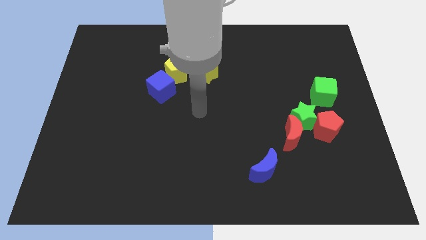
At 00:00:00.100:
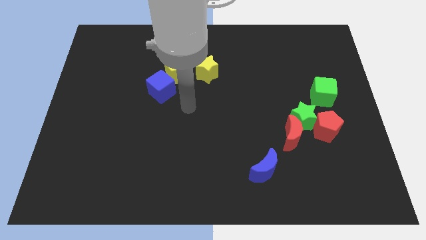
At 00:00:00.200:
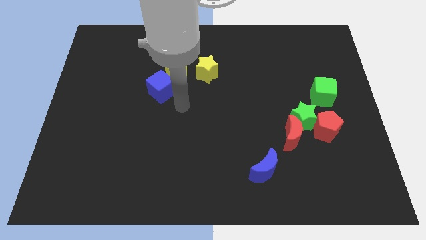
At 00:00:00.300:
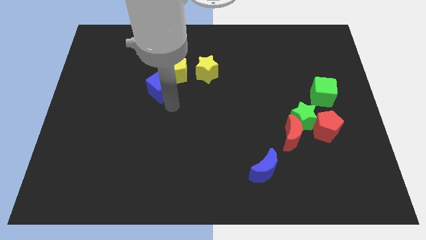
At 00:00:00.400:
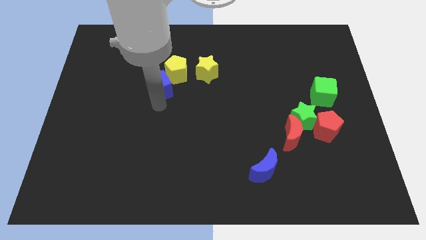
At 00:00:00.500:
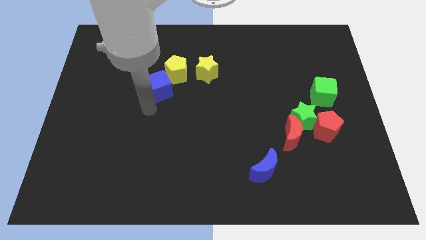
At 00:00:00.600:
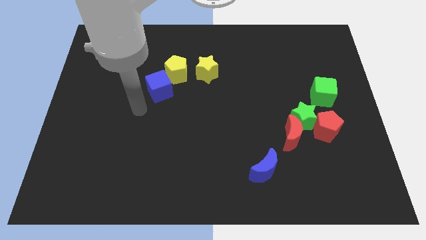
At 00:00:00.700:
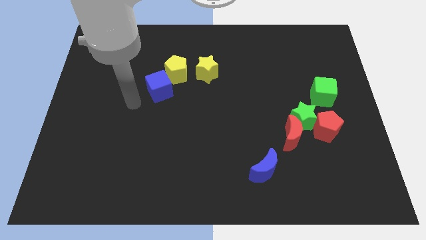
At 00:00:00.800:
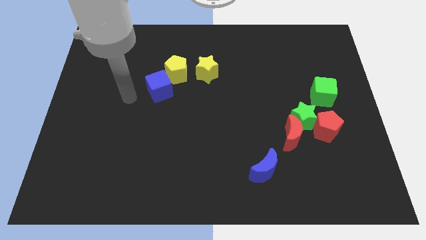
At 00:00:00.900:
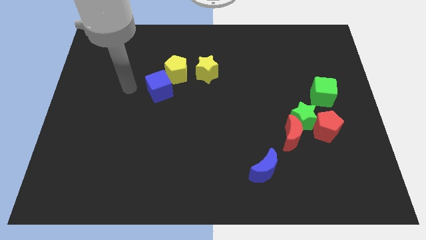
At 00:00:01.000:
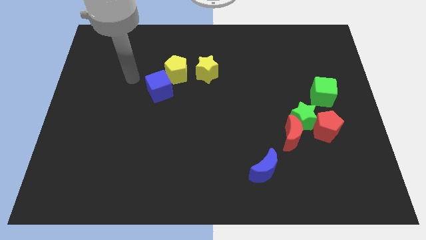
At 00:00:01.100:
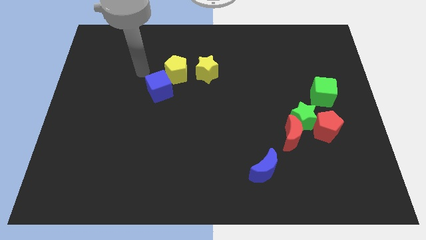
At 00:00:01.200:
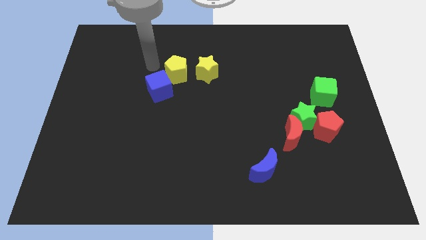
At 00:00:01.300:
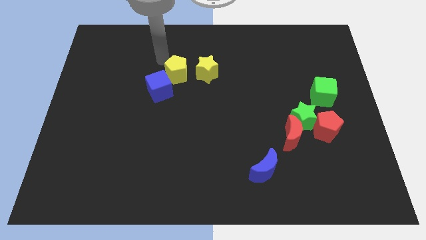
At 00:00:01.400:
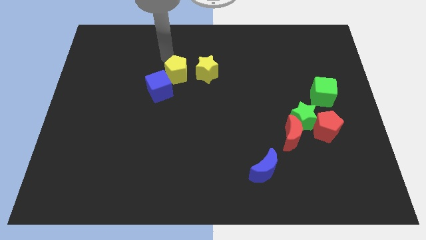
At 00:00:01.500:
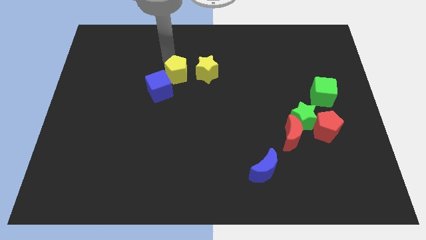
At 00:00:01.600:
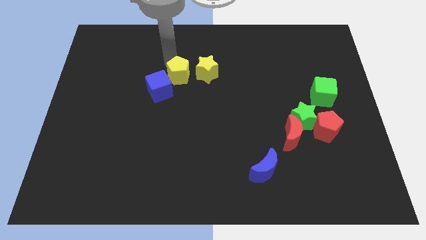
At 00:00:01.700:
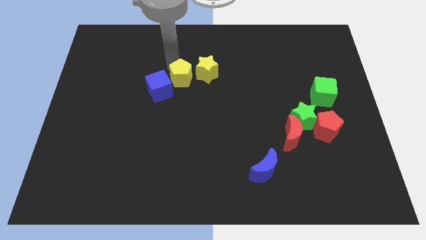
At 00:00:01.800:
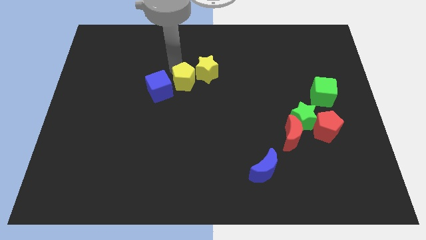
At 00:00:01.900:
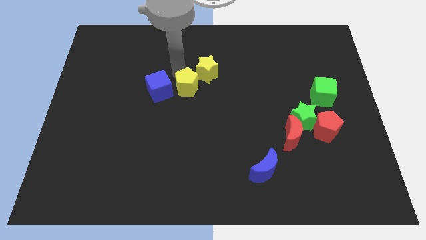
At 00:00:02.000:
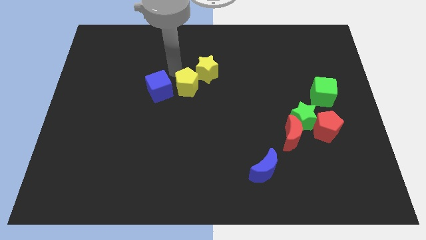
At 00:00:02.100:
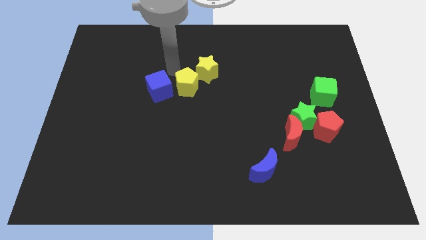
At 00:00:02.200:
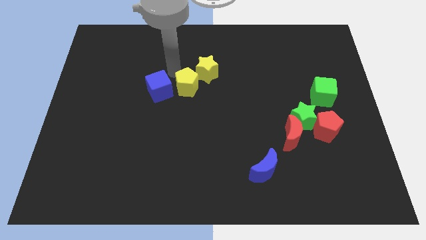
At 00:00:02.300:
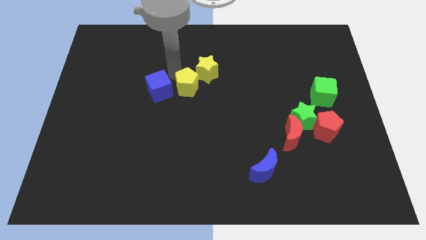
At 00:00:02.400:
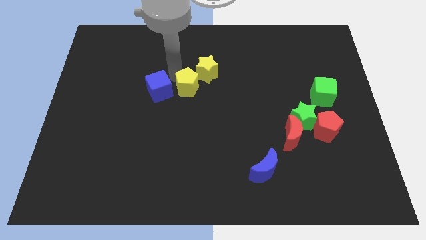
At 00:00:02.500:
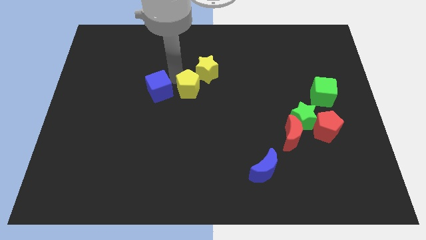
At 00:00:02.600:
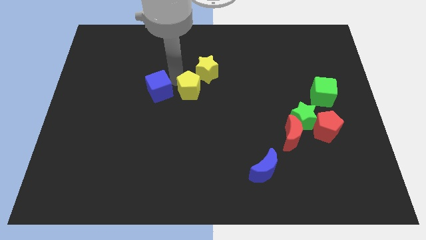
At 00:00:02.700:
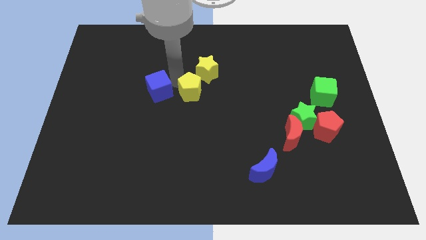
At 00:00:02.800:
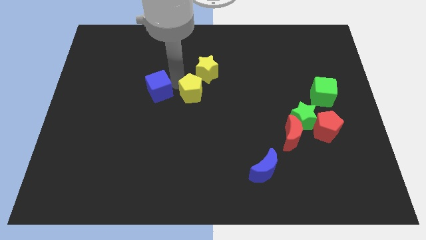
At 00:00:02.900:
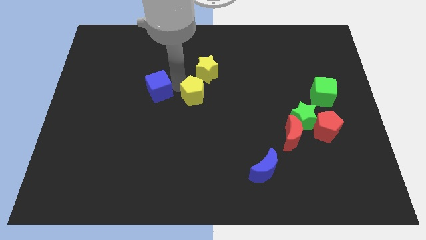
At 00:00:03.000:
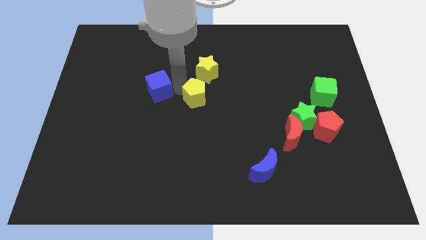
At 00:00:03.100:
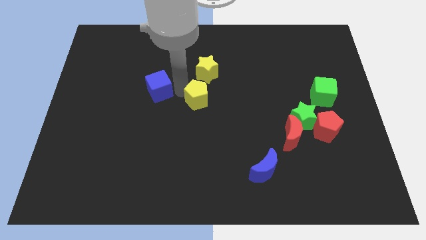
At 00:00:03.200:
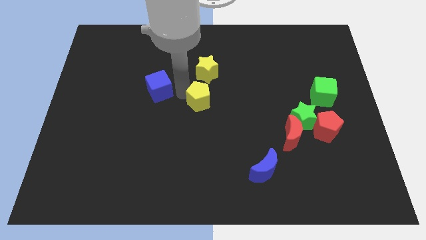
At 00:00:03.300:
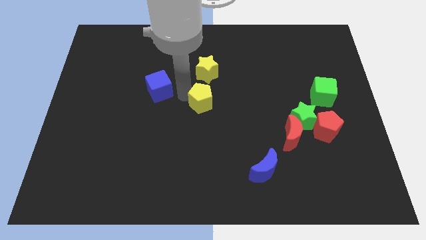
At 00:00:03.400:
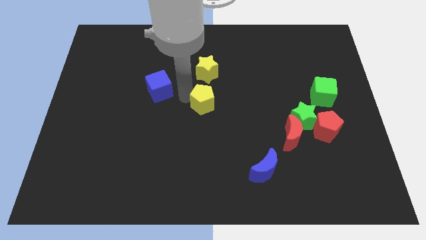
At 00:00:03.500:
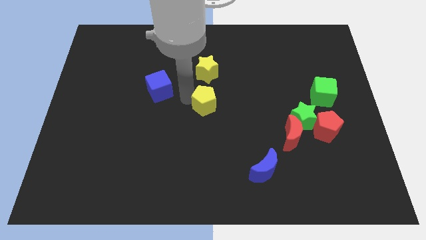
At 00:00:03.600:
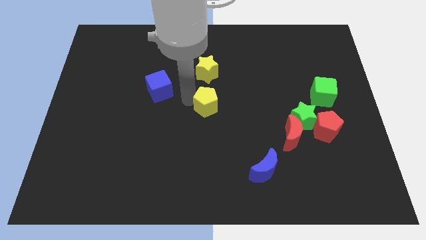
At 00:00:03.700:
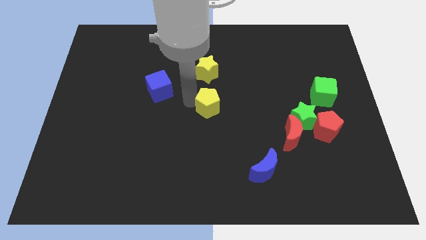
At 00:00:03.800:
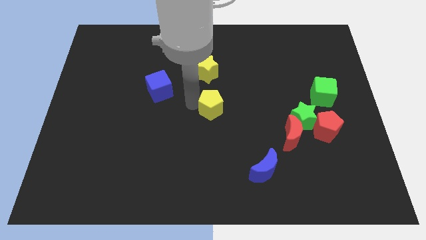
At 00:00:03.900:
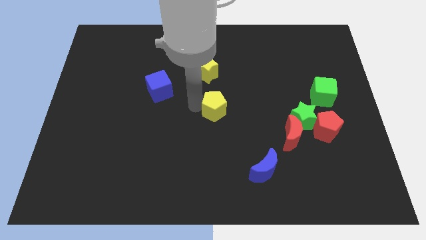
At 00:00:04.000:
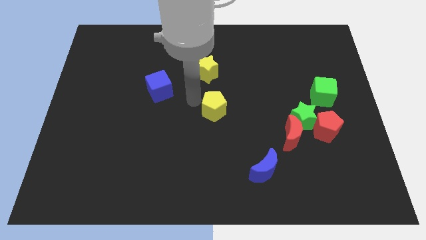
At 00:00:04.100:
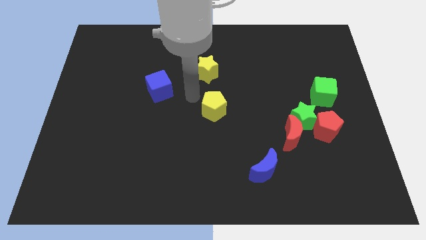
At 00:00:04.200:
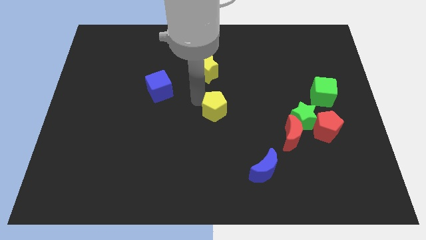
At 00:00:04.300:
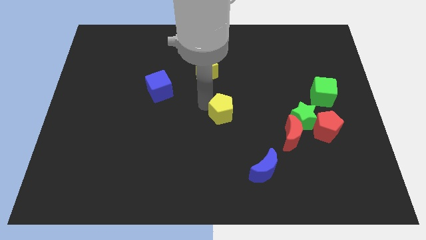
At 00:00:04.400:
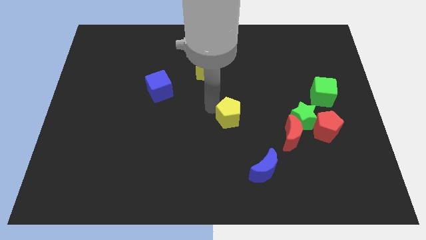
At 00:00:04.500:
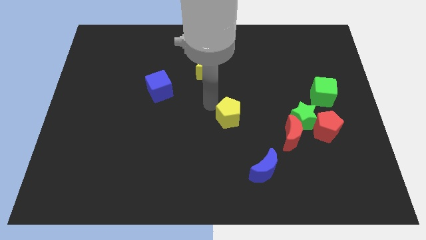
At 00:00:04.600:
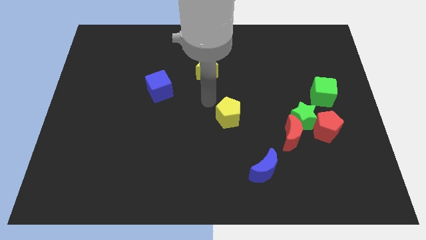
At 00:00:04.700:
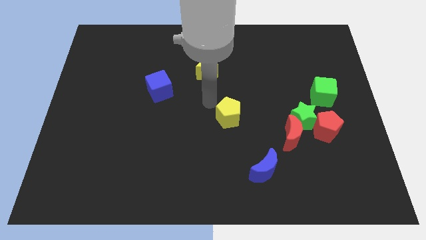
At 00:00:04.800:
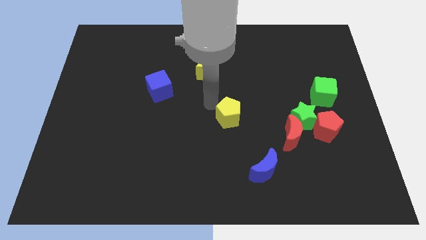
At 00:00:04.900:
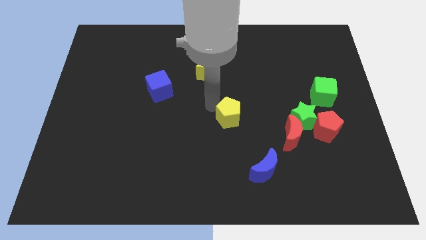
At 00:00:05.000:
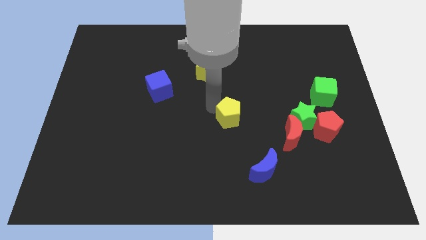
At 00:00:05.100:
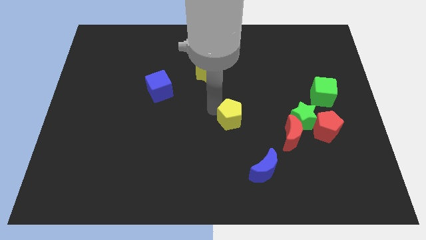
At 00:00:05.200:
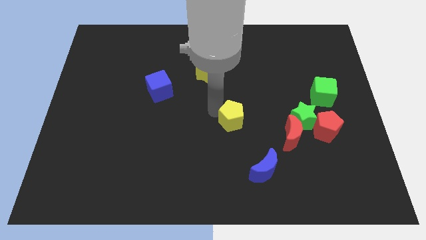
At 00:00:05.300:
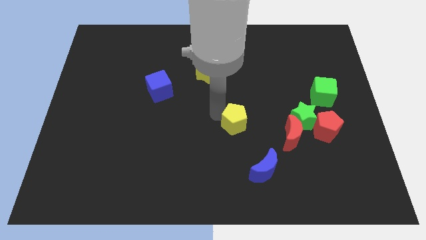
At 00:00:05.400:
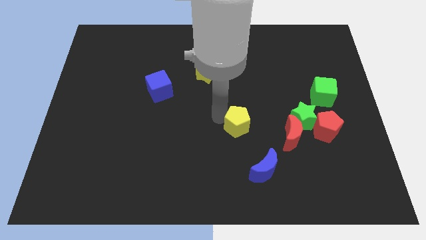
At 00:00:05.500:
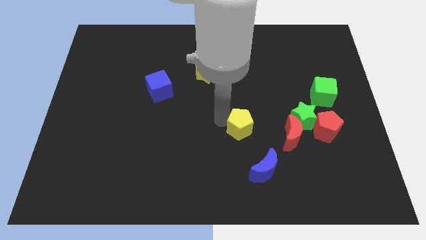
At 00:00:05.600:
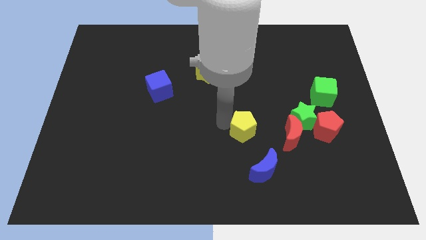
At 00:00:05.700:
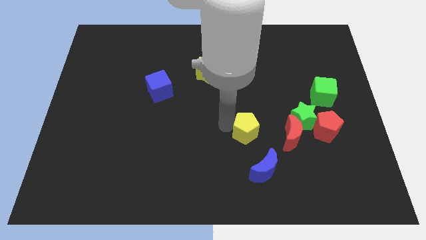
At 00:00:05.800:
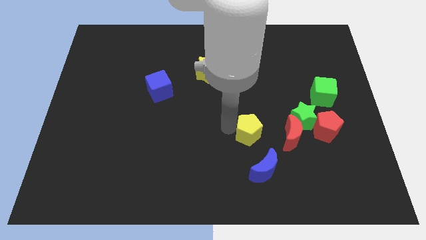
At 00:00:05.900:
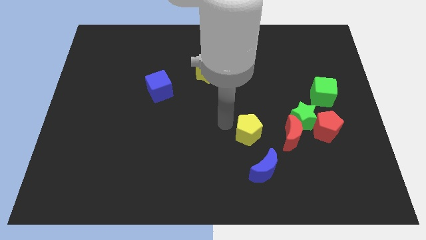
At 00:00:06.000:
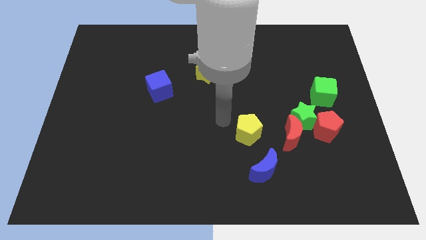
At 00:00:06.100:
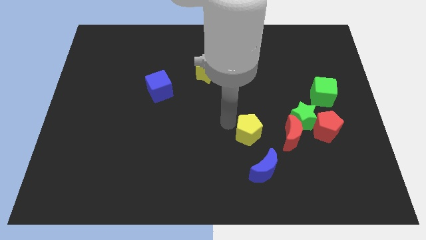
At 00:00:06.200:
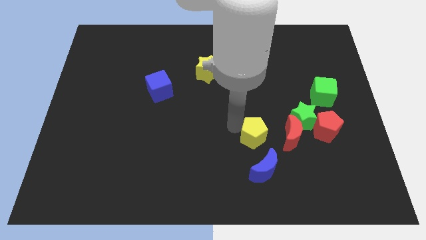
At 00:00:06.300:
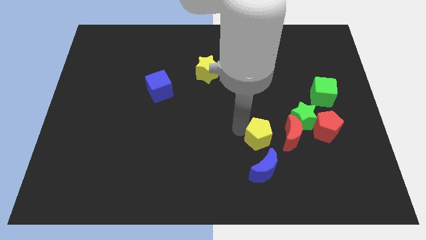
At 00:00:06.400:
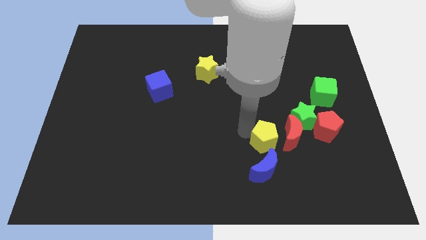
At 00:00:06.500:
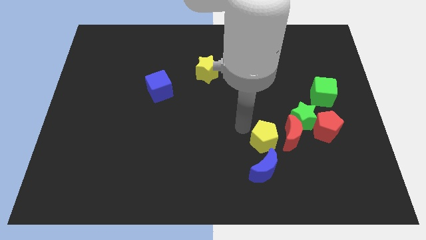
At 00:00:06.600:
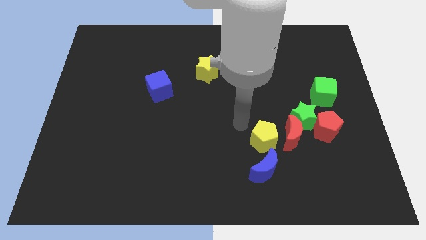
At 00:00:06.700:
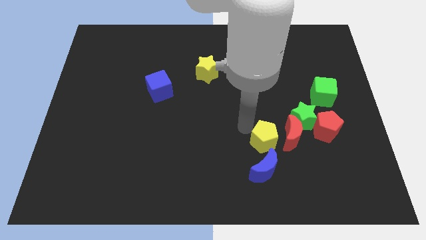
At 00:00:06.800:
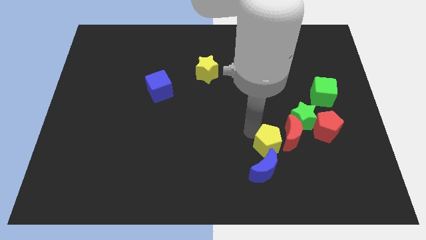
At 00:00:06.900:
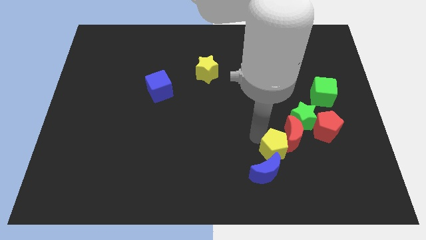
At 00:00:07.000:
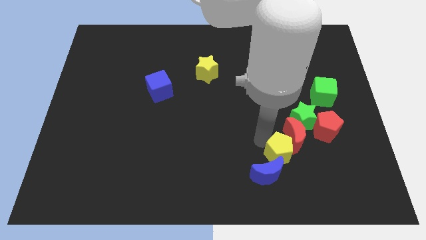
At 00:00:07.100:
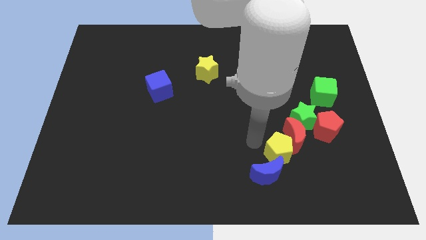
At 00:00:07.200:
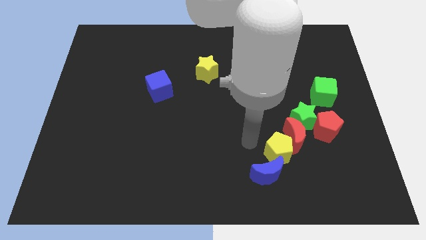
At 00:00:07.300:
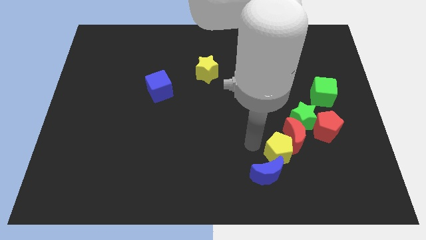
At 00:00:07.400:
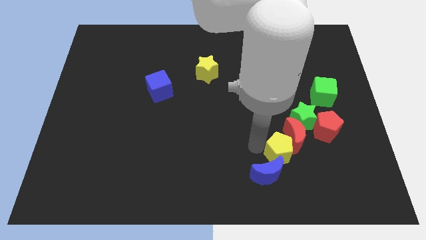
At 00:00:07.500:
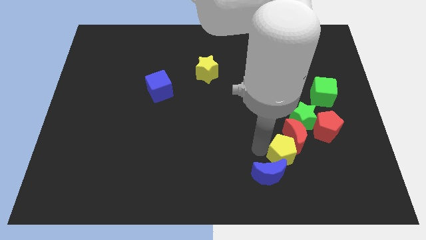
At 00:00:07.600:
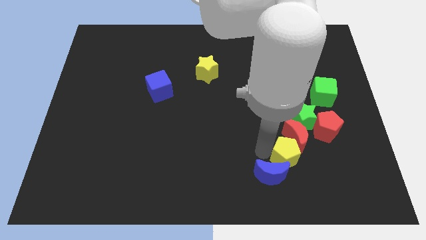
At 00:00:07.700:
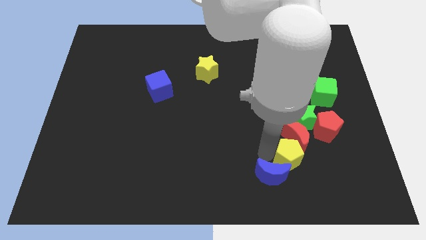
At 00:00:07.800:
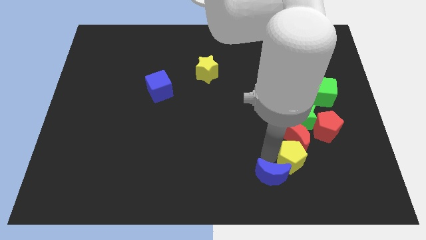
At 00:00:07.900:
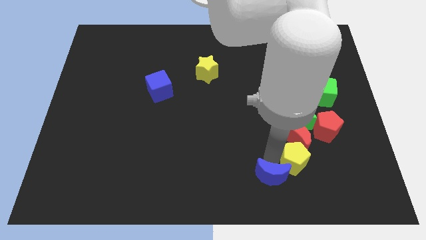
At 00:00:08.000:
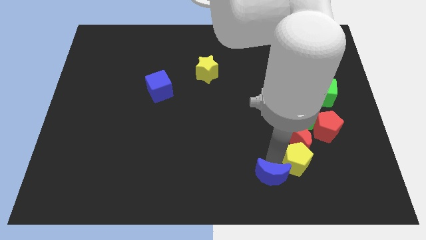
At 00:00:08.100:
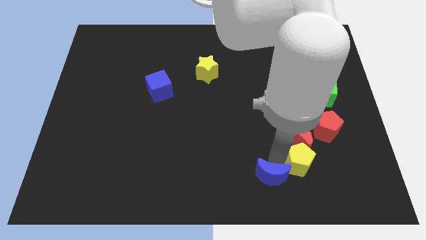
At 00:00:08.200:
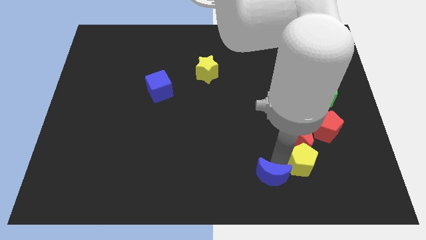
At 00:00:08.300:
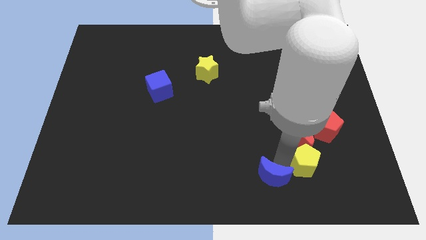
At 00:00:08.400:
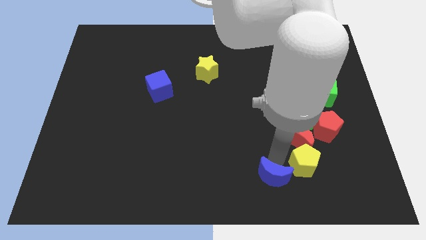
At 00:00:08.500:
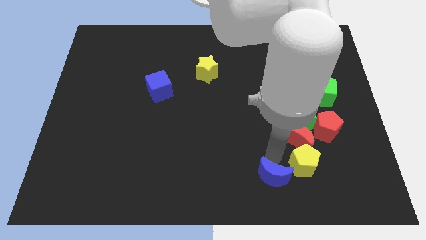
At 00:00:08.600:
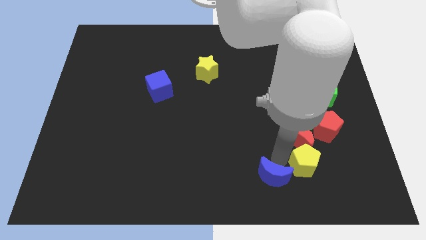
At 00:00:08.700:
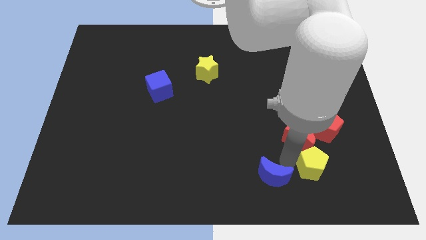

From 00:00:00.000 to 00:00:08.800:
push the yellow pentagon to the bottom of the red pentagon
